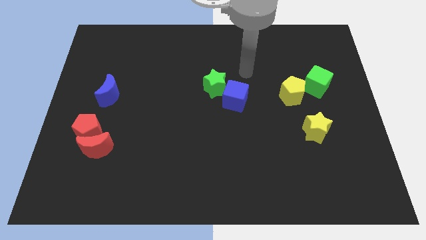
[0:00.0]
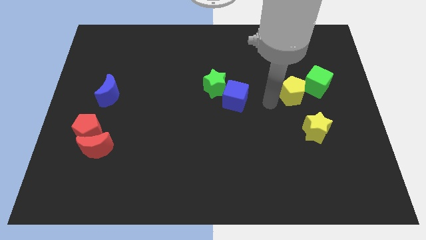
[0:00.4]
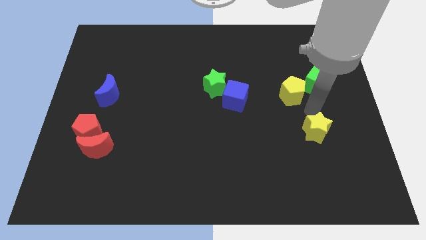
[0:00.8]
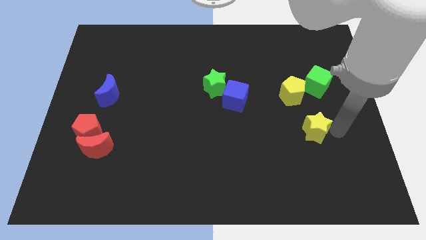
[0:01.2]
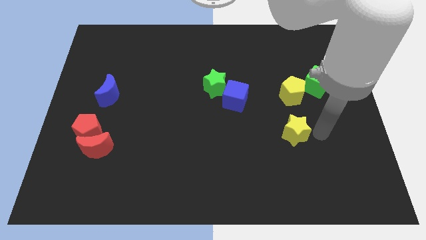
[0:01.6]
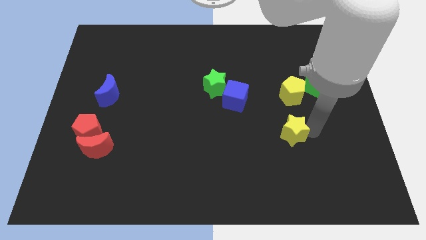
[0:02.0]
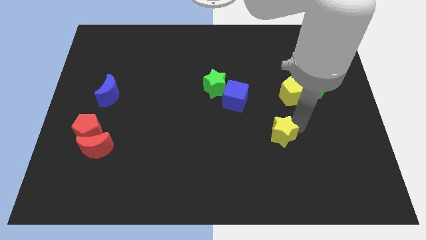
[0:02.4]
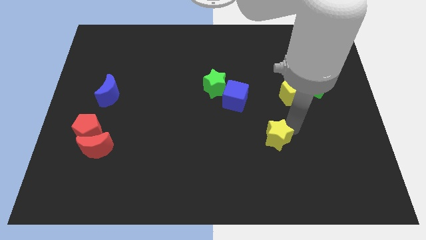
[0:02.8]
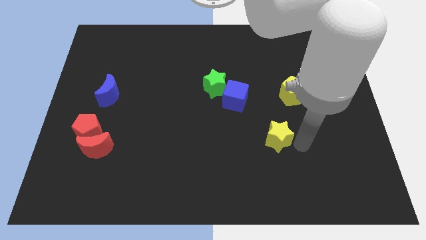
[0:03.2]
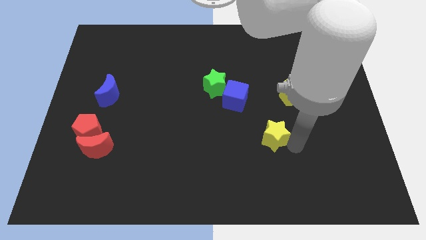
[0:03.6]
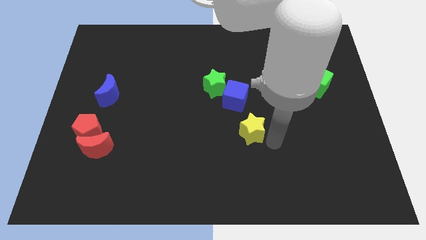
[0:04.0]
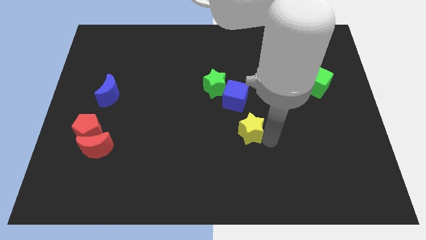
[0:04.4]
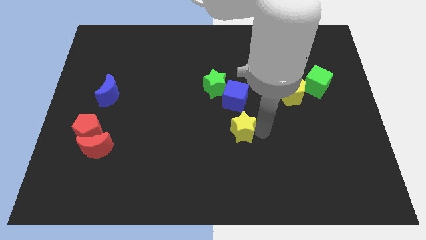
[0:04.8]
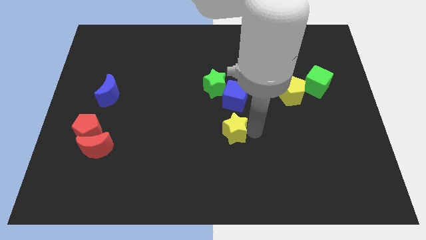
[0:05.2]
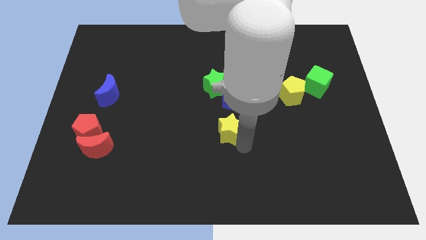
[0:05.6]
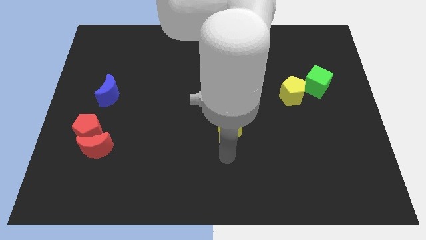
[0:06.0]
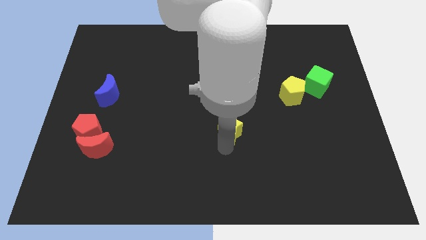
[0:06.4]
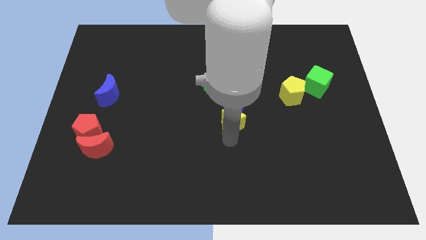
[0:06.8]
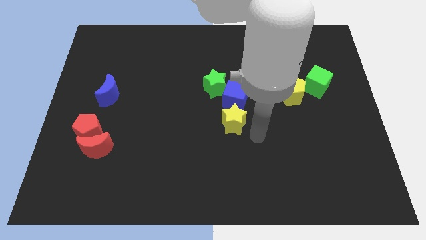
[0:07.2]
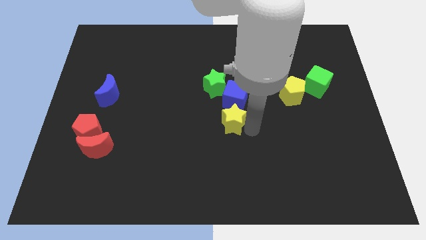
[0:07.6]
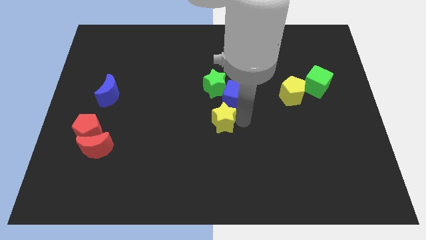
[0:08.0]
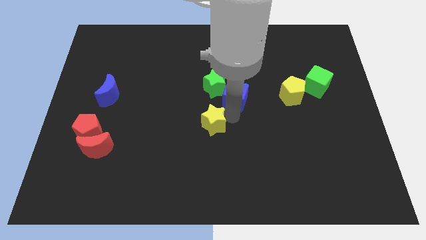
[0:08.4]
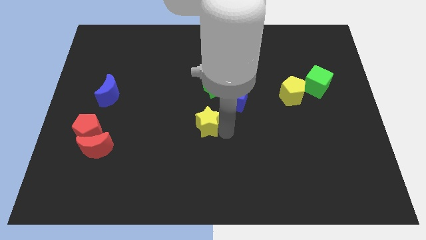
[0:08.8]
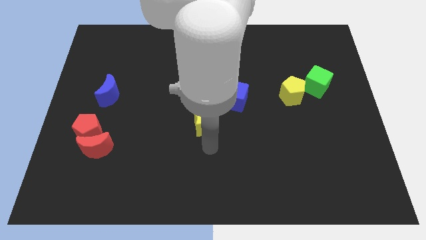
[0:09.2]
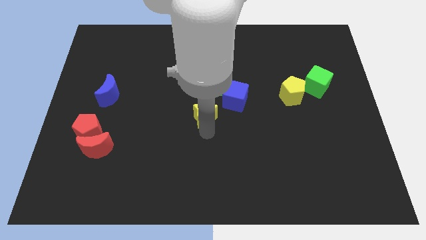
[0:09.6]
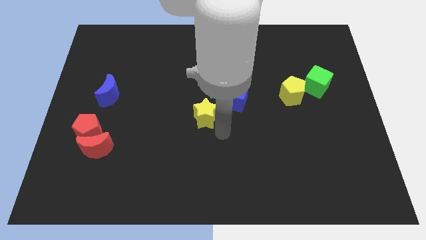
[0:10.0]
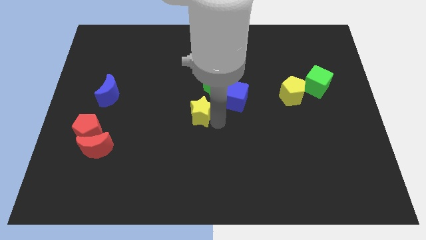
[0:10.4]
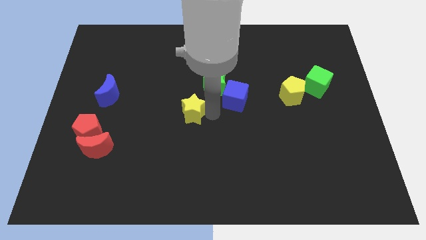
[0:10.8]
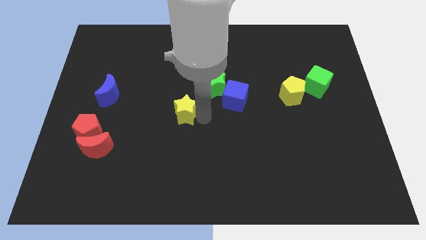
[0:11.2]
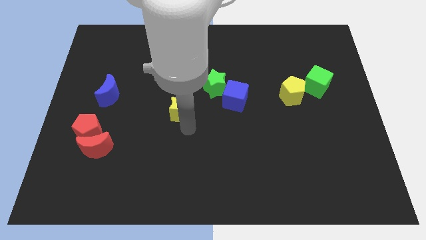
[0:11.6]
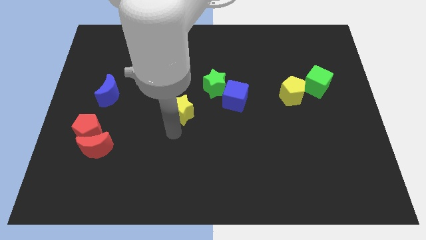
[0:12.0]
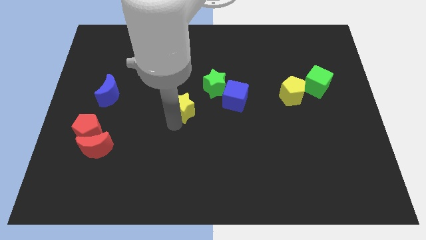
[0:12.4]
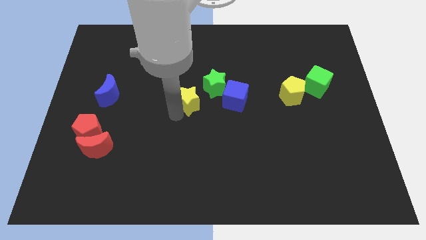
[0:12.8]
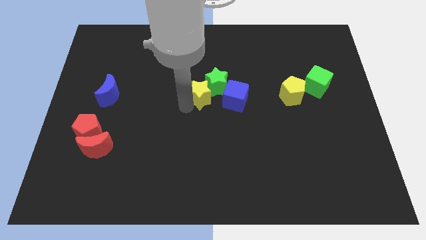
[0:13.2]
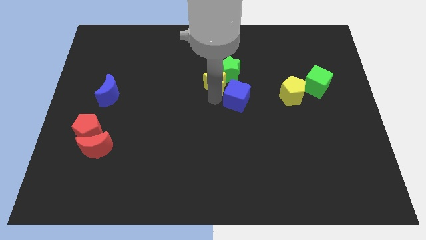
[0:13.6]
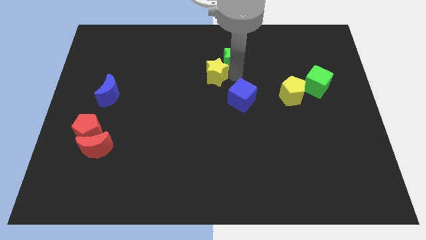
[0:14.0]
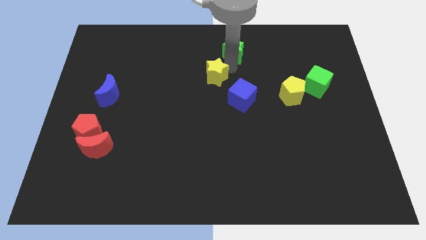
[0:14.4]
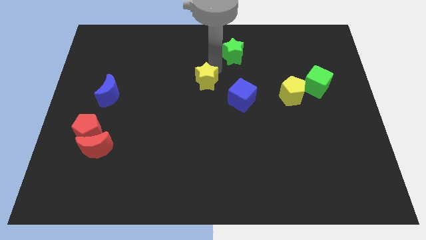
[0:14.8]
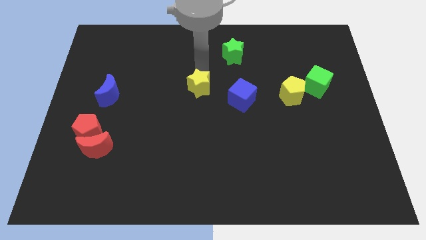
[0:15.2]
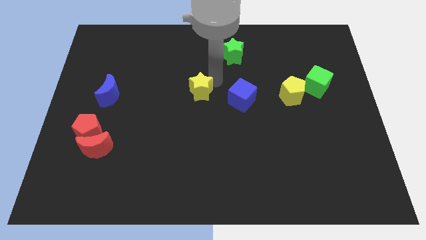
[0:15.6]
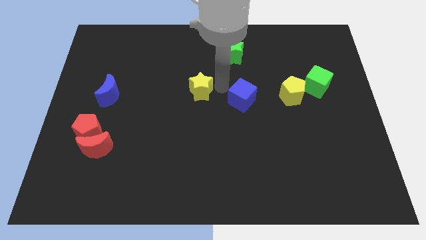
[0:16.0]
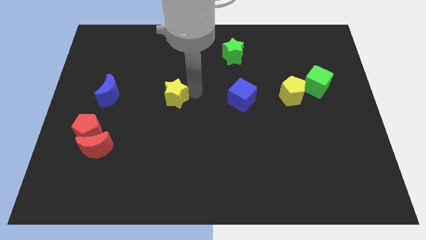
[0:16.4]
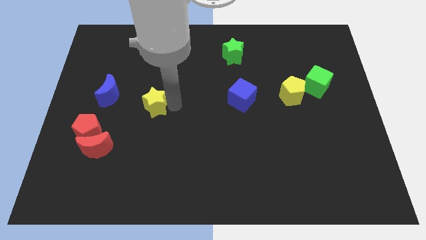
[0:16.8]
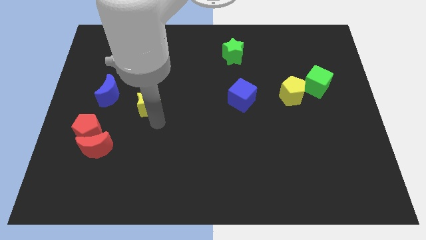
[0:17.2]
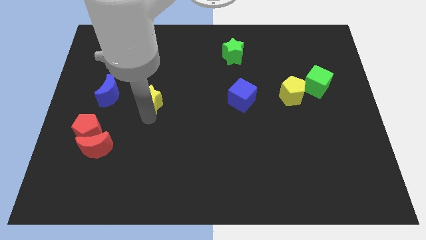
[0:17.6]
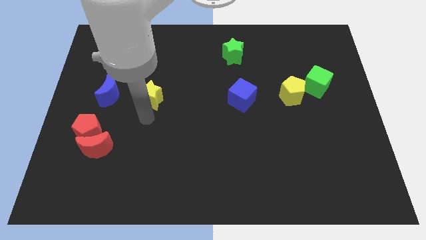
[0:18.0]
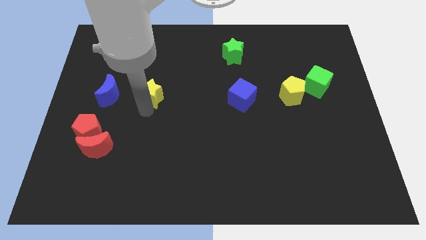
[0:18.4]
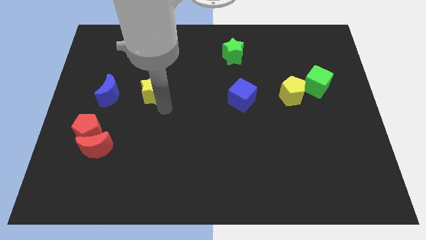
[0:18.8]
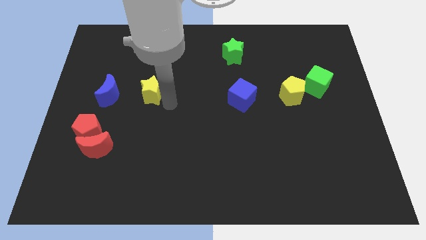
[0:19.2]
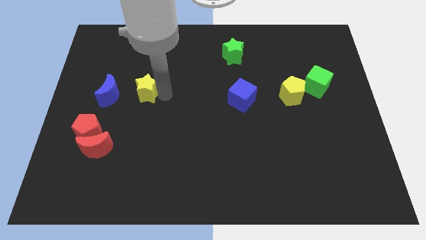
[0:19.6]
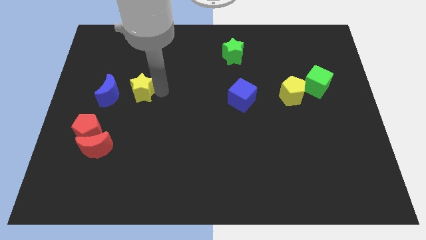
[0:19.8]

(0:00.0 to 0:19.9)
push the yellow star to the top right side of the blue moon

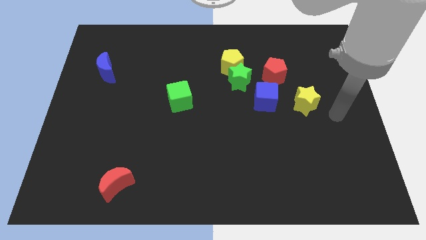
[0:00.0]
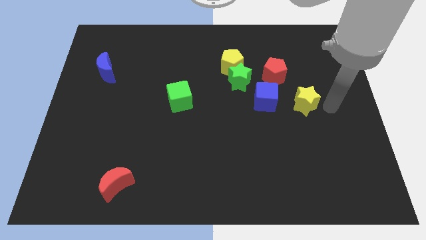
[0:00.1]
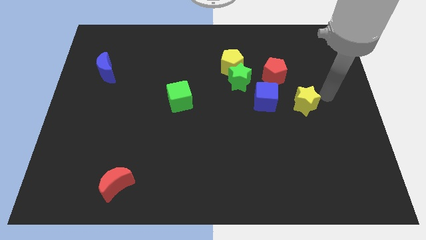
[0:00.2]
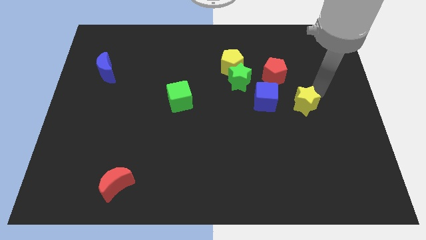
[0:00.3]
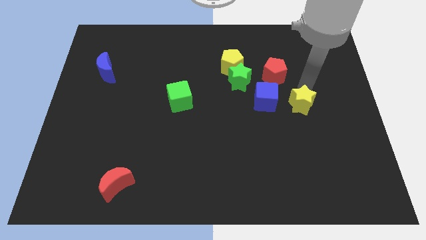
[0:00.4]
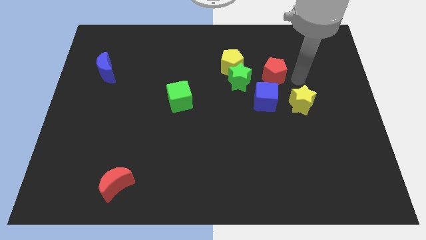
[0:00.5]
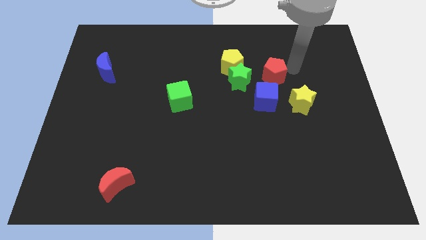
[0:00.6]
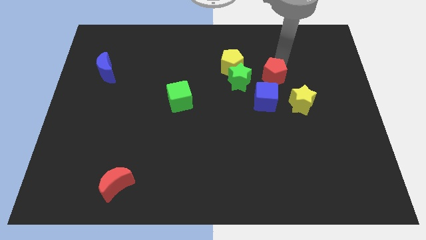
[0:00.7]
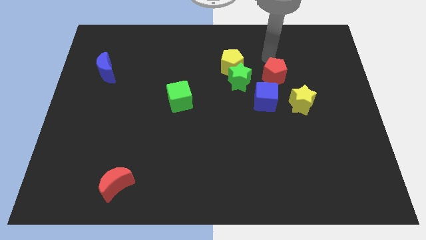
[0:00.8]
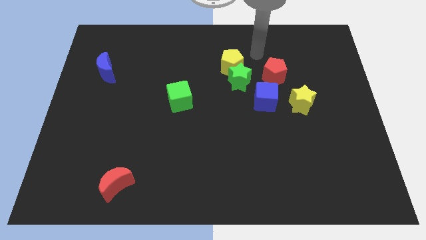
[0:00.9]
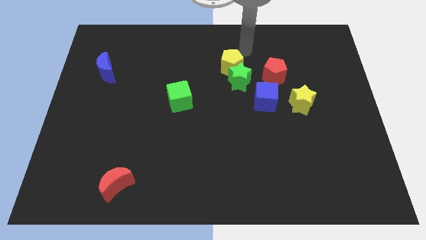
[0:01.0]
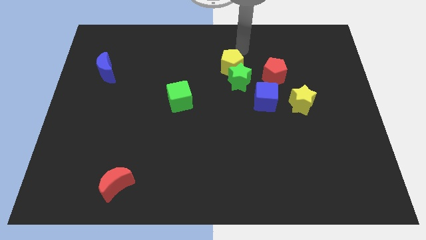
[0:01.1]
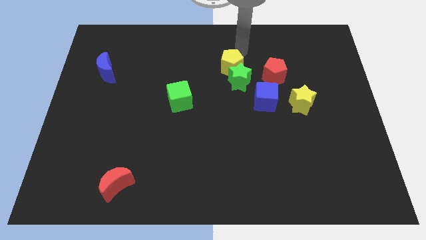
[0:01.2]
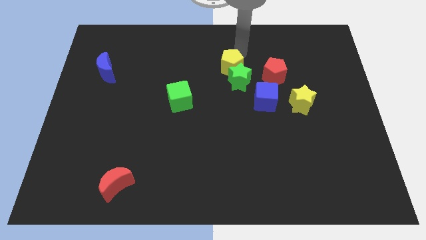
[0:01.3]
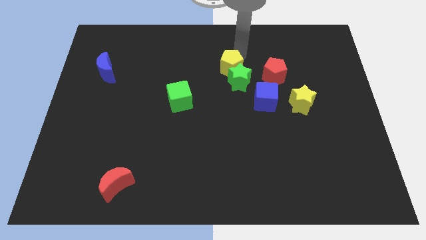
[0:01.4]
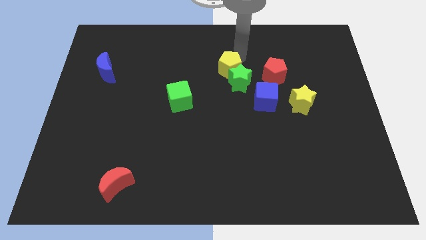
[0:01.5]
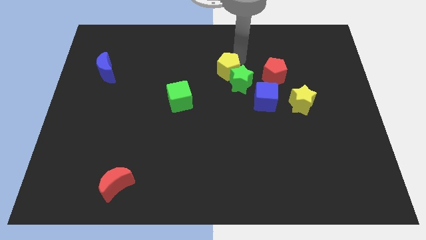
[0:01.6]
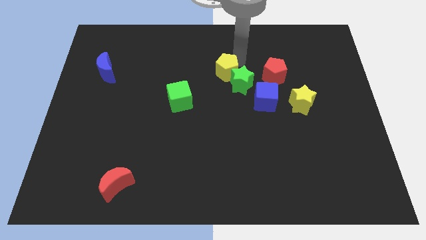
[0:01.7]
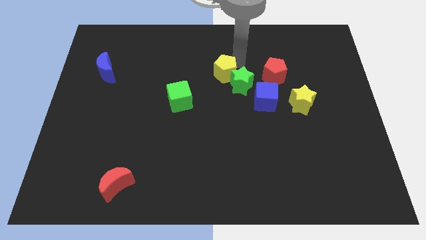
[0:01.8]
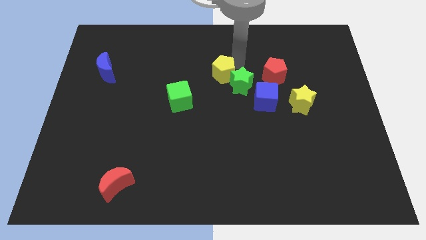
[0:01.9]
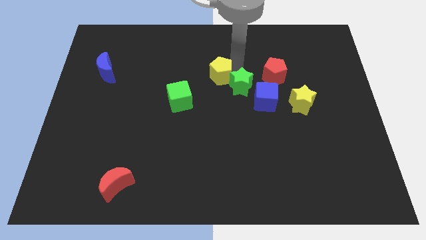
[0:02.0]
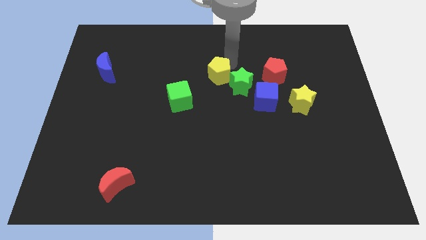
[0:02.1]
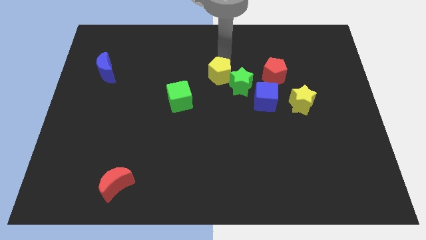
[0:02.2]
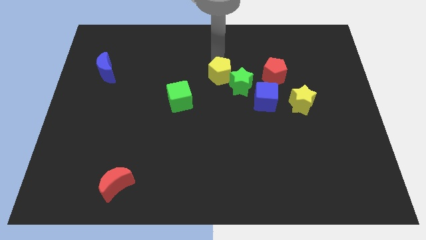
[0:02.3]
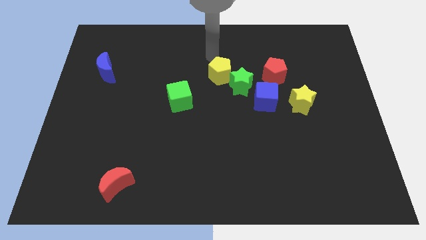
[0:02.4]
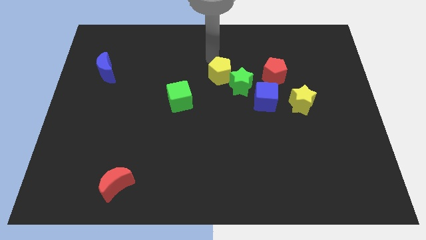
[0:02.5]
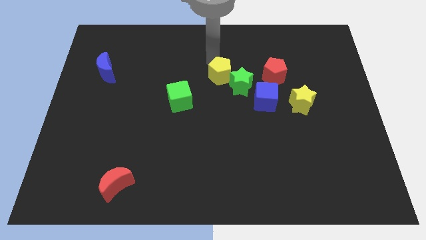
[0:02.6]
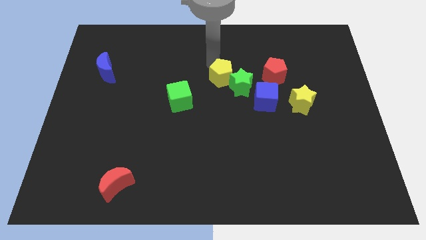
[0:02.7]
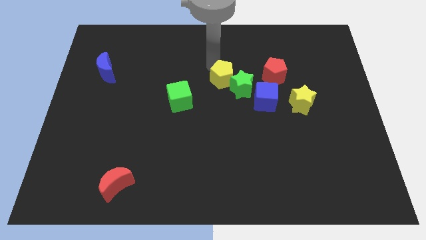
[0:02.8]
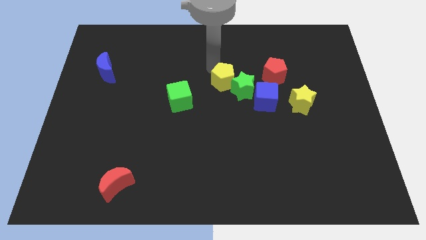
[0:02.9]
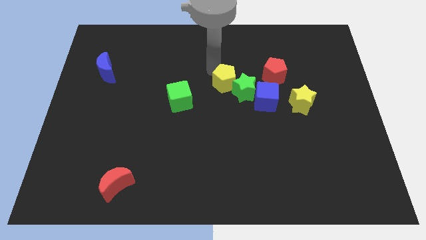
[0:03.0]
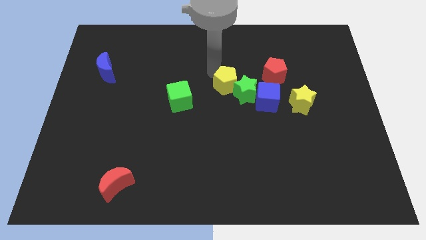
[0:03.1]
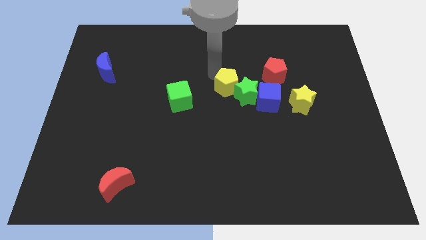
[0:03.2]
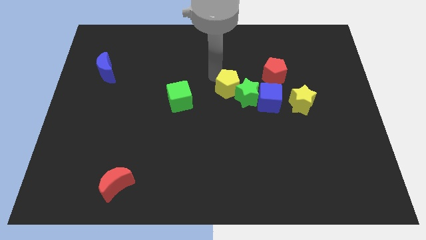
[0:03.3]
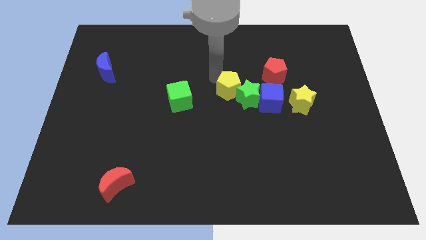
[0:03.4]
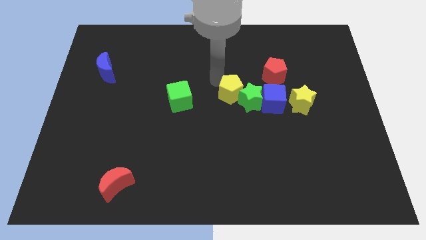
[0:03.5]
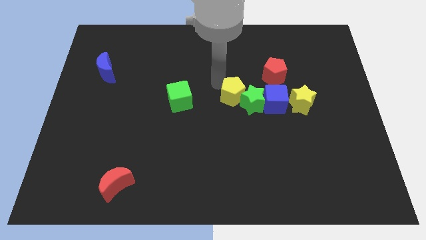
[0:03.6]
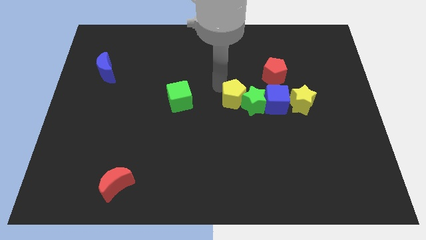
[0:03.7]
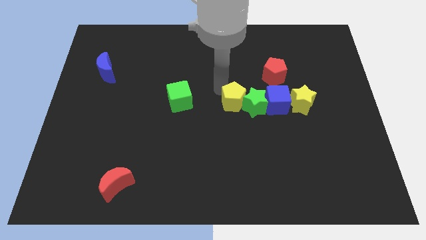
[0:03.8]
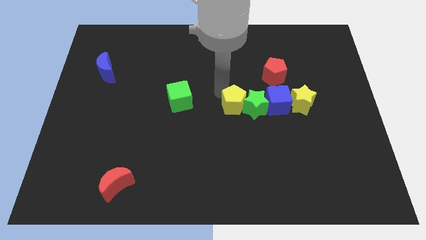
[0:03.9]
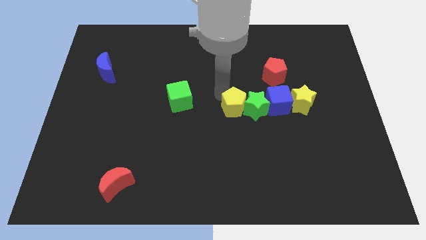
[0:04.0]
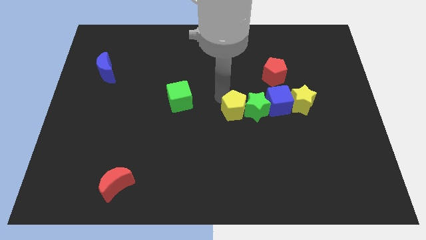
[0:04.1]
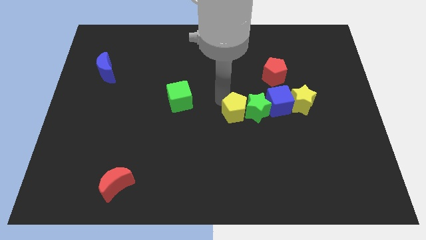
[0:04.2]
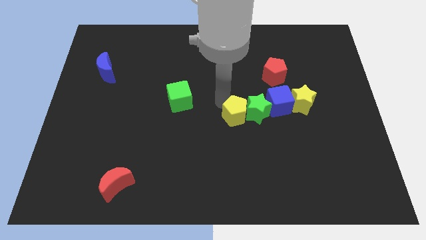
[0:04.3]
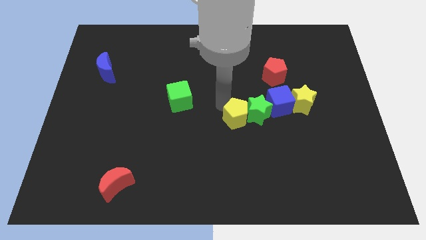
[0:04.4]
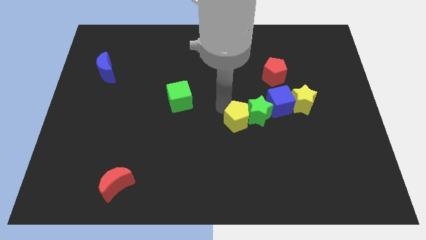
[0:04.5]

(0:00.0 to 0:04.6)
move the yellow pentagon to the bottom left of the blue cube
